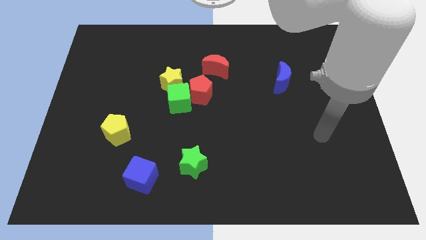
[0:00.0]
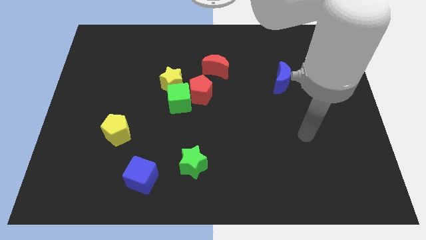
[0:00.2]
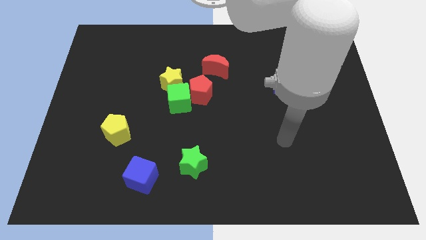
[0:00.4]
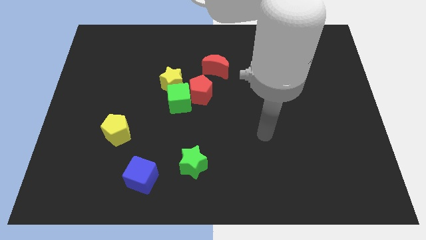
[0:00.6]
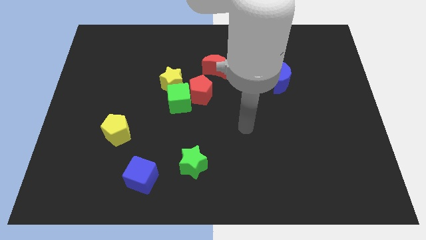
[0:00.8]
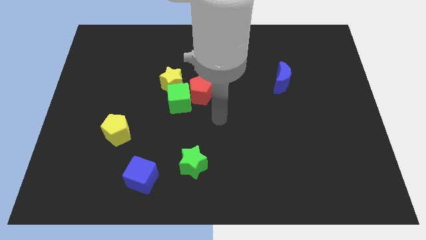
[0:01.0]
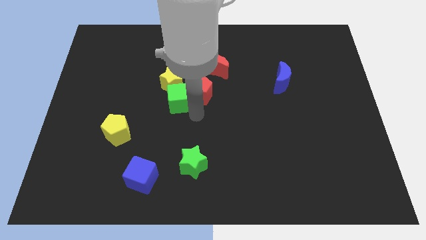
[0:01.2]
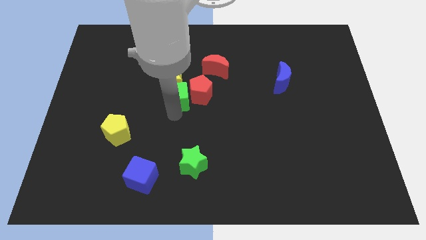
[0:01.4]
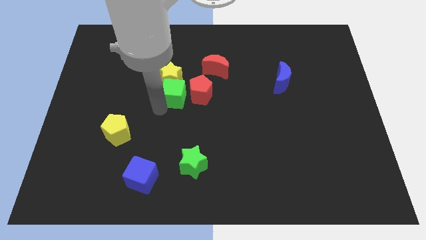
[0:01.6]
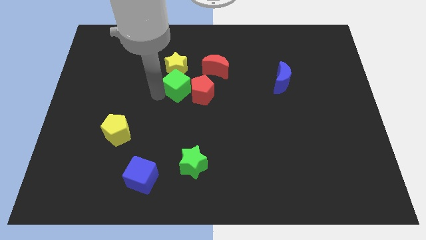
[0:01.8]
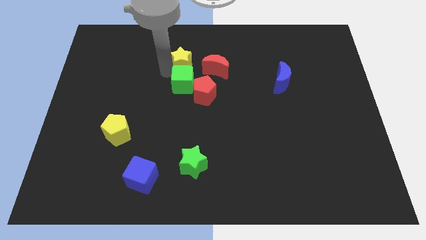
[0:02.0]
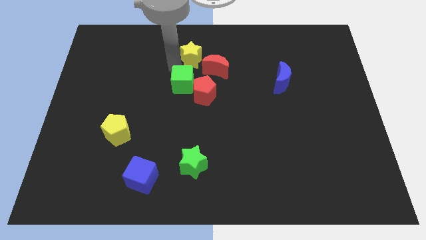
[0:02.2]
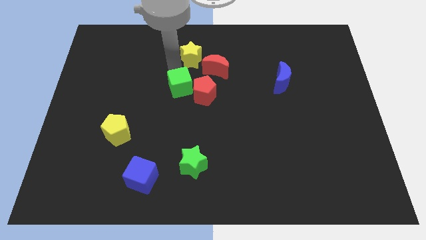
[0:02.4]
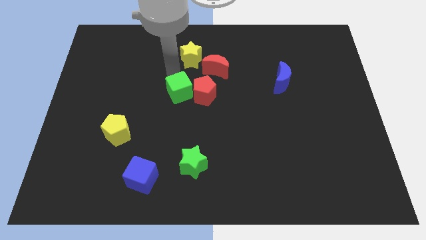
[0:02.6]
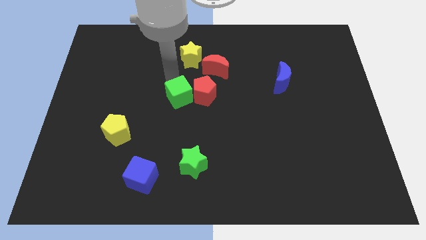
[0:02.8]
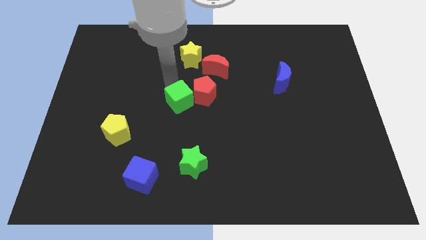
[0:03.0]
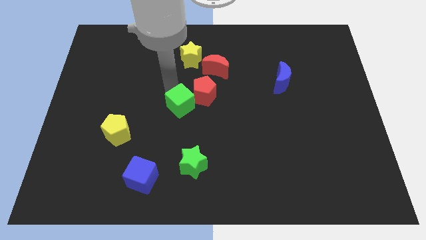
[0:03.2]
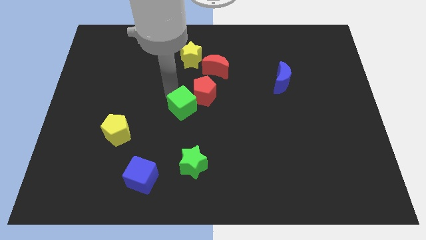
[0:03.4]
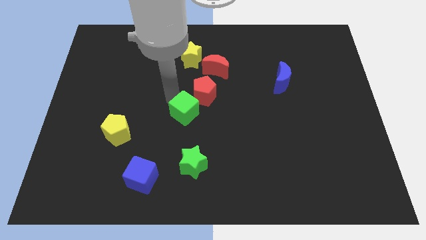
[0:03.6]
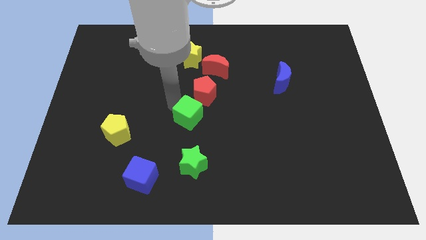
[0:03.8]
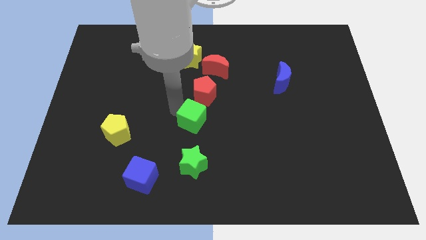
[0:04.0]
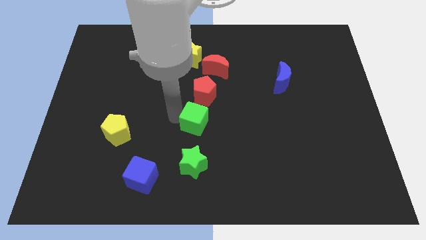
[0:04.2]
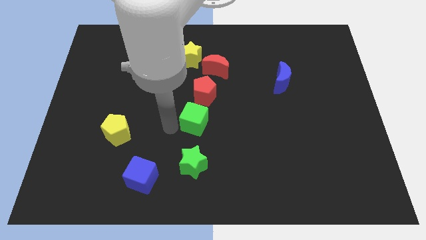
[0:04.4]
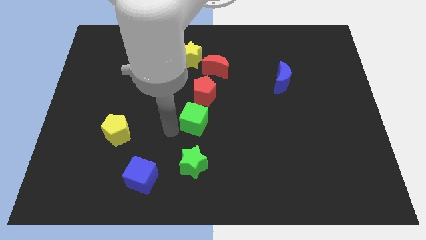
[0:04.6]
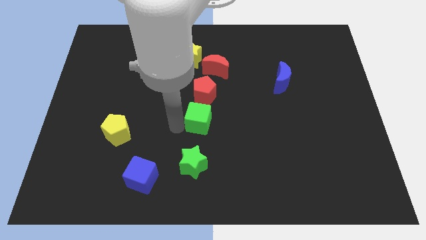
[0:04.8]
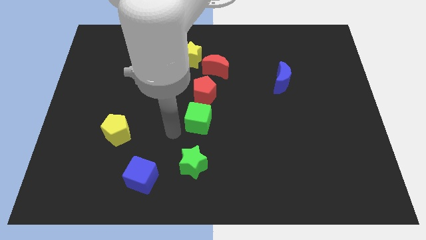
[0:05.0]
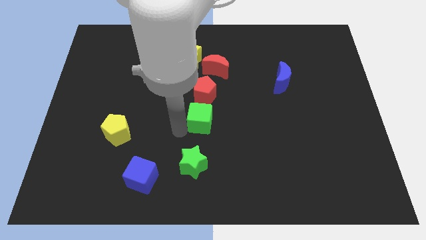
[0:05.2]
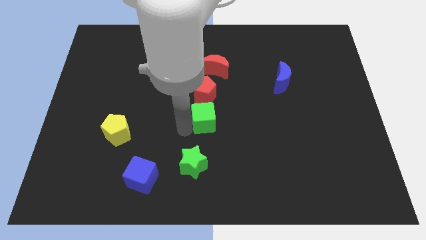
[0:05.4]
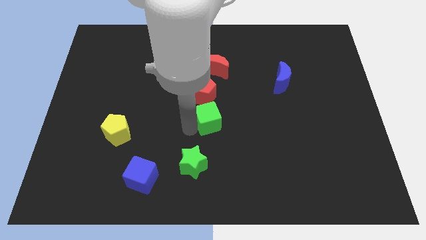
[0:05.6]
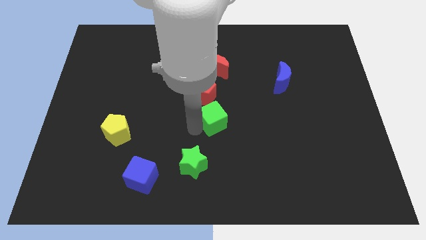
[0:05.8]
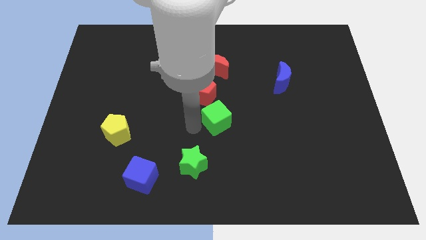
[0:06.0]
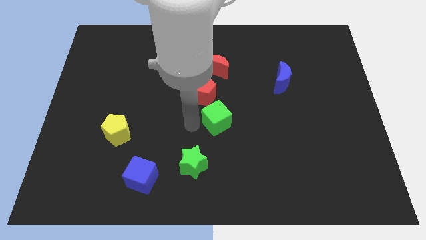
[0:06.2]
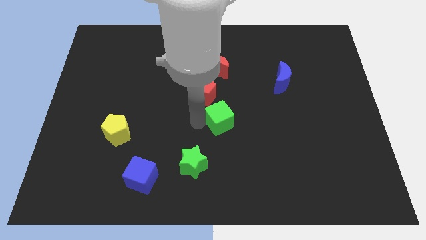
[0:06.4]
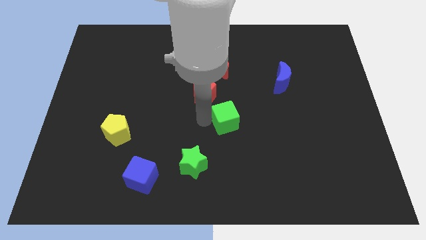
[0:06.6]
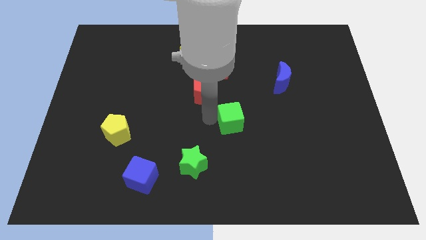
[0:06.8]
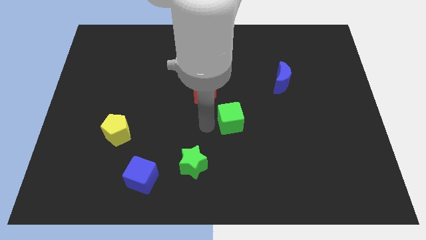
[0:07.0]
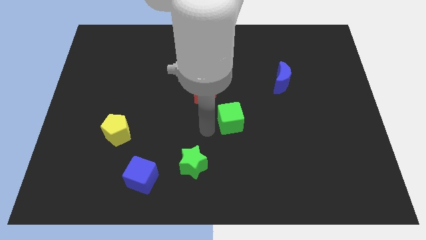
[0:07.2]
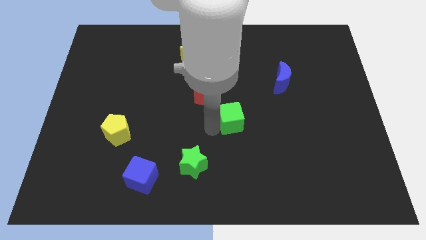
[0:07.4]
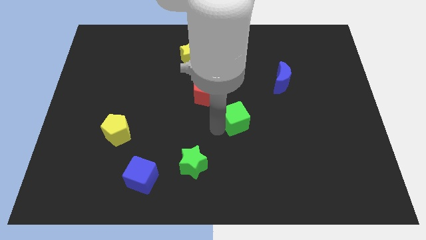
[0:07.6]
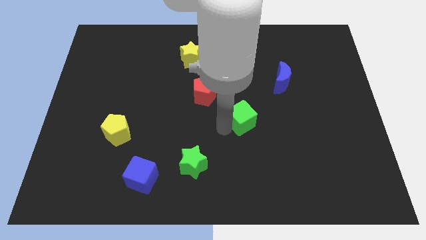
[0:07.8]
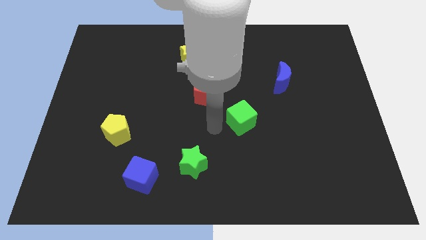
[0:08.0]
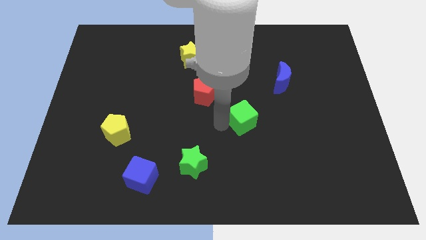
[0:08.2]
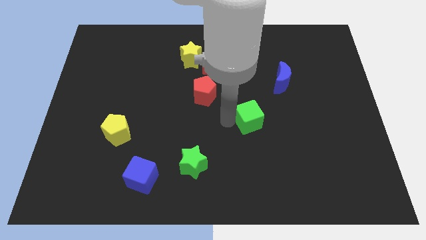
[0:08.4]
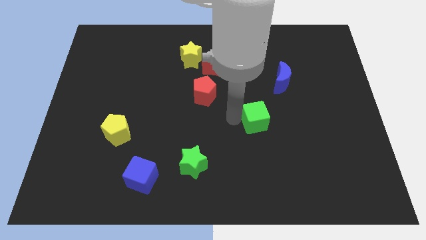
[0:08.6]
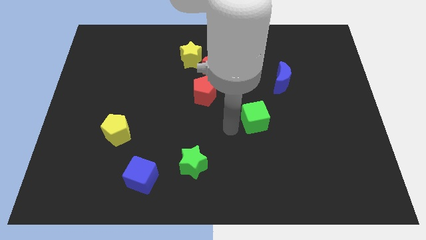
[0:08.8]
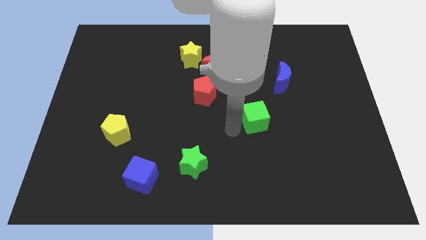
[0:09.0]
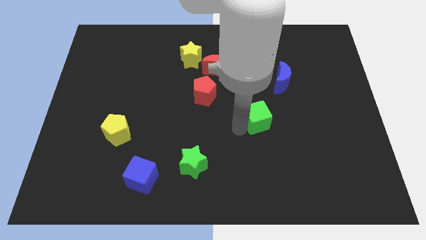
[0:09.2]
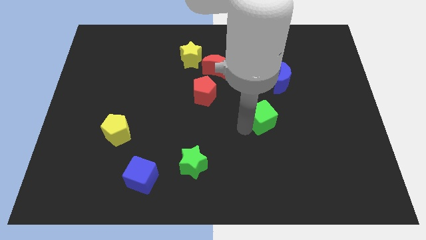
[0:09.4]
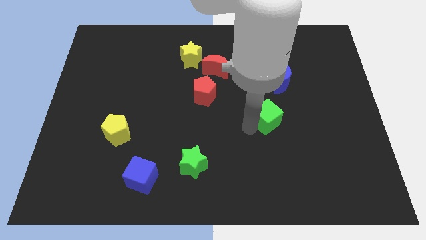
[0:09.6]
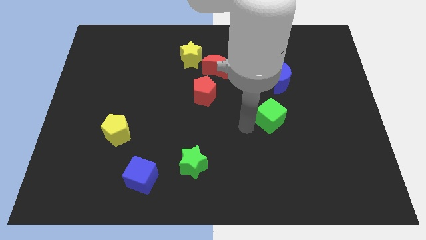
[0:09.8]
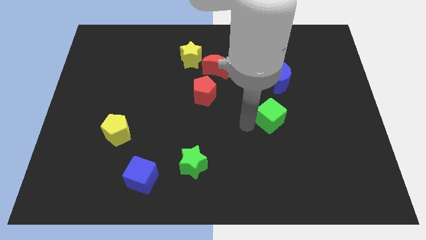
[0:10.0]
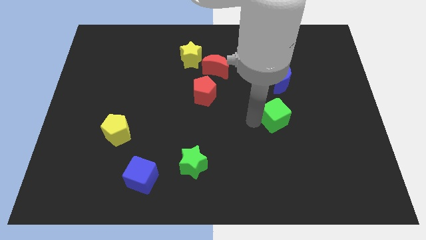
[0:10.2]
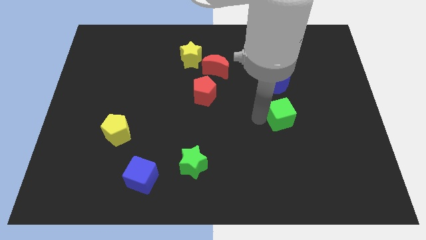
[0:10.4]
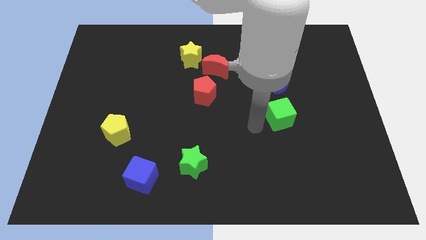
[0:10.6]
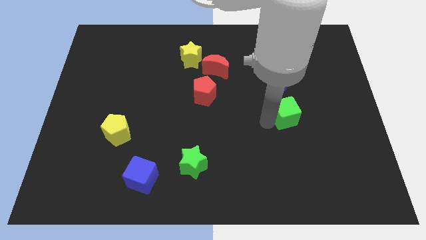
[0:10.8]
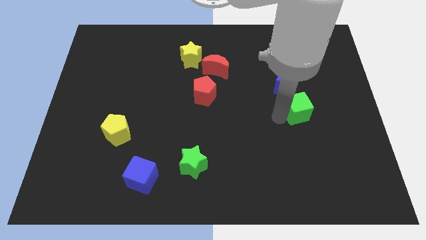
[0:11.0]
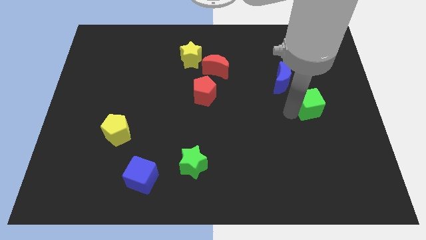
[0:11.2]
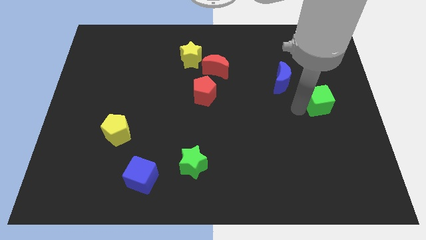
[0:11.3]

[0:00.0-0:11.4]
slide the green cube to the center right

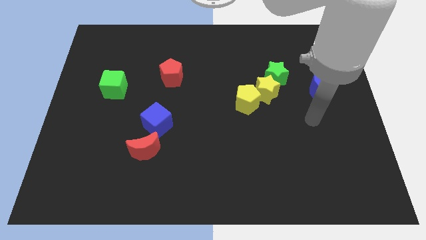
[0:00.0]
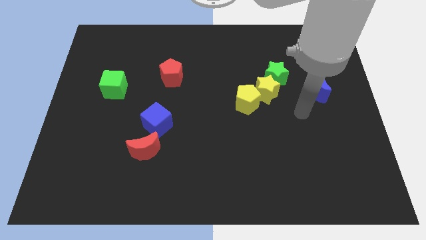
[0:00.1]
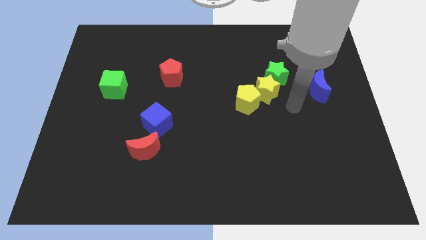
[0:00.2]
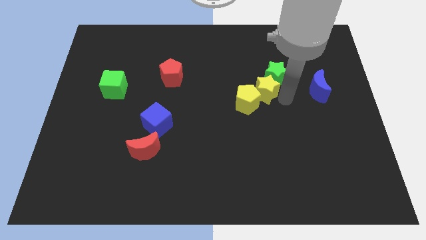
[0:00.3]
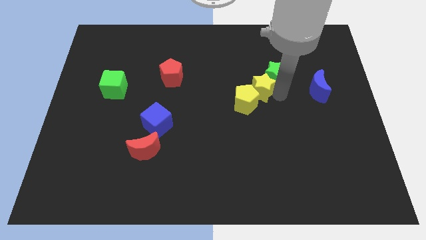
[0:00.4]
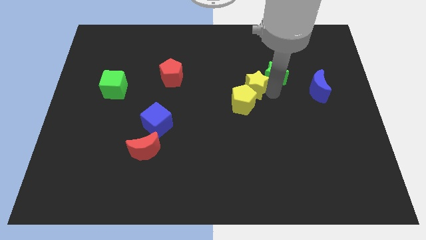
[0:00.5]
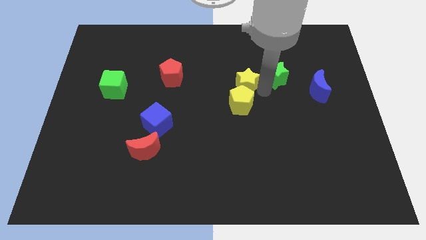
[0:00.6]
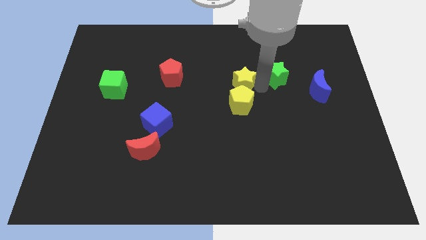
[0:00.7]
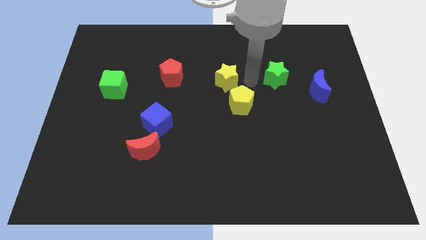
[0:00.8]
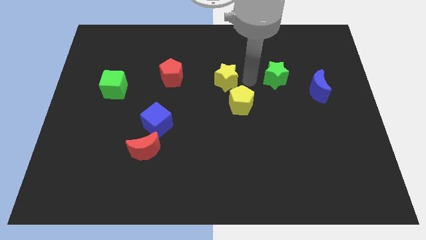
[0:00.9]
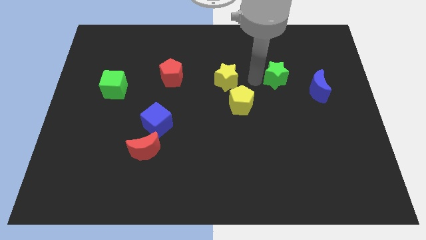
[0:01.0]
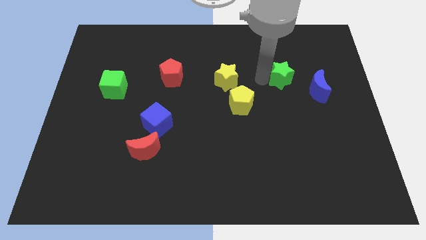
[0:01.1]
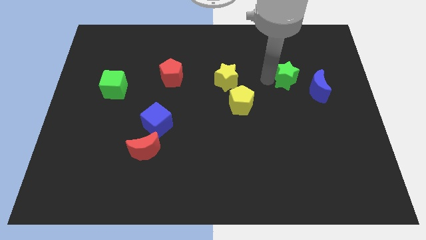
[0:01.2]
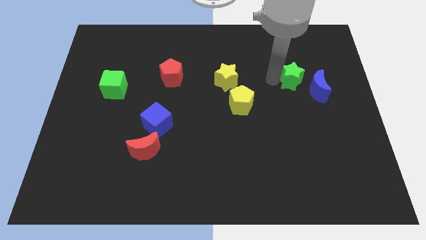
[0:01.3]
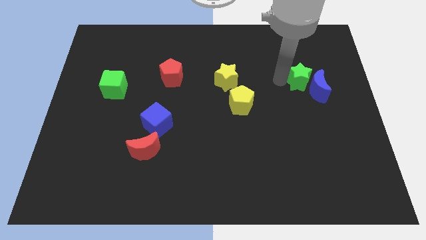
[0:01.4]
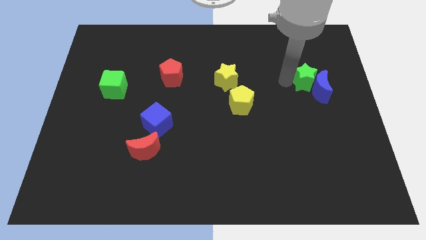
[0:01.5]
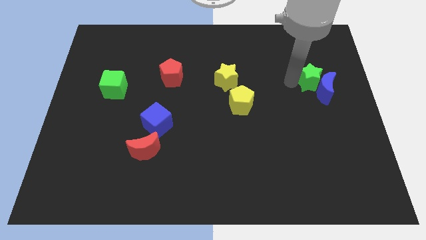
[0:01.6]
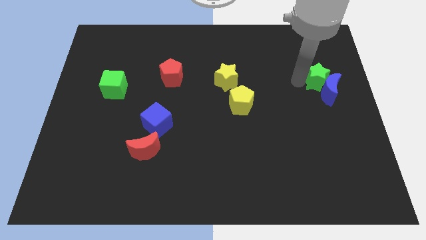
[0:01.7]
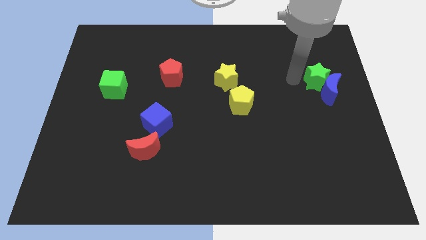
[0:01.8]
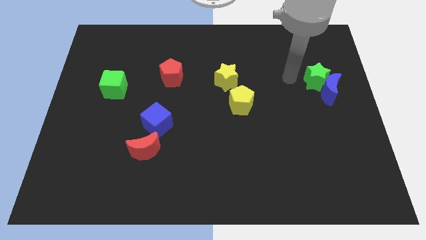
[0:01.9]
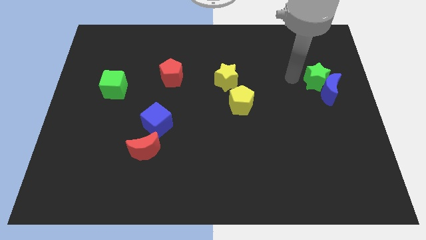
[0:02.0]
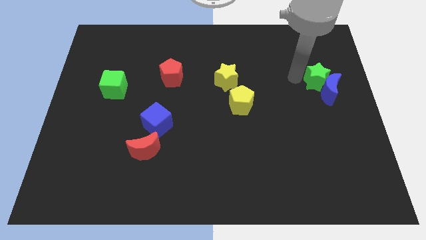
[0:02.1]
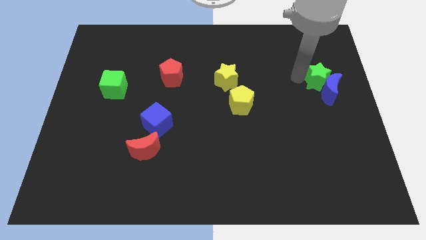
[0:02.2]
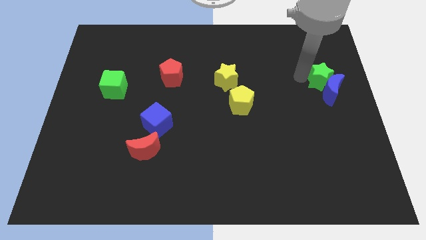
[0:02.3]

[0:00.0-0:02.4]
push the green star to the right side of the board
